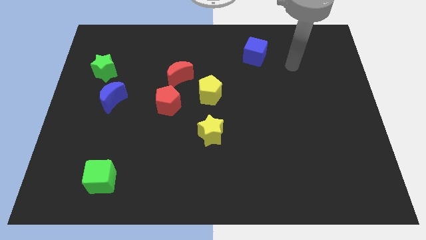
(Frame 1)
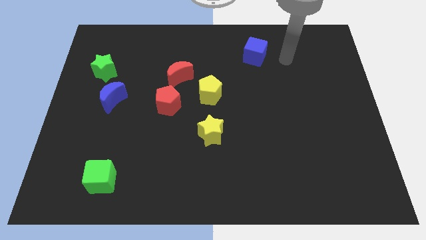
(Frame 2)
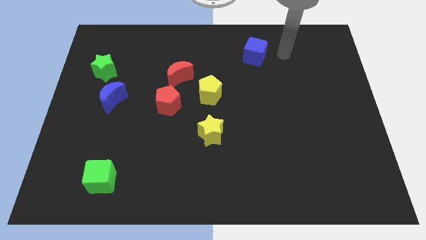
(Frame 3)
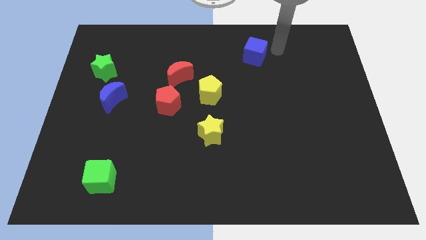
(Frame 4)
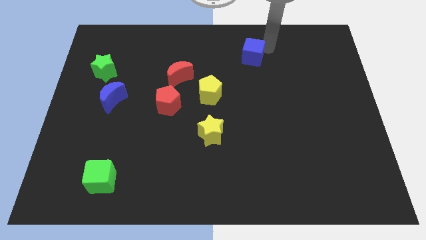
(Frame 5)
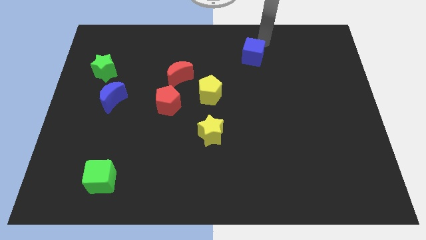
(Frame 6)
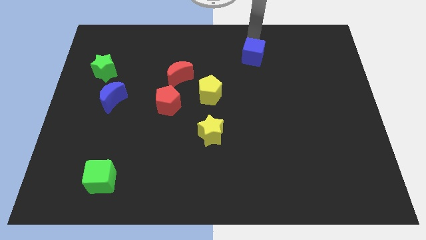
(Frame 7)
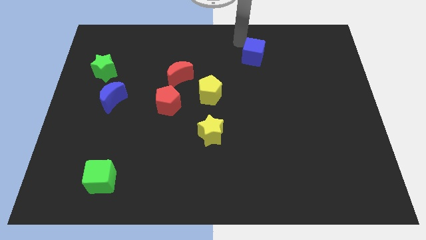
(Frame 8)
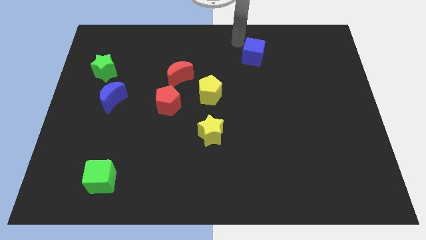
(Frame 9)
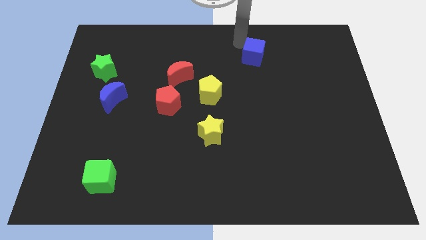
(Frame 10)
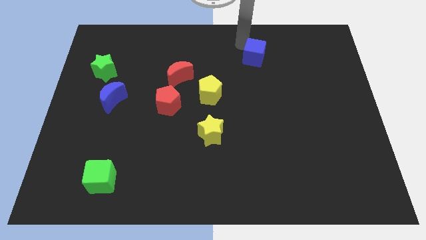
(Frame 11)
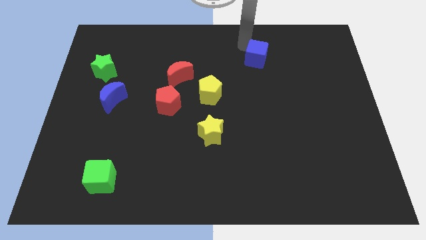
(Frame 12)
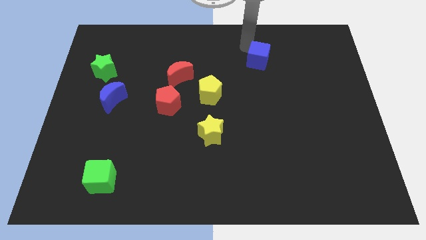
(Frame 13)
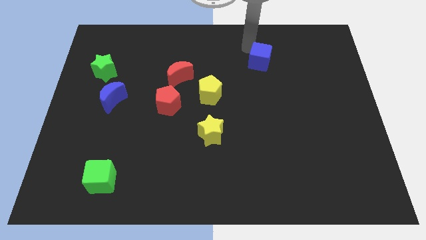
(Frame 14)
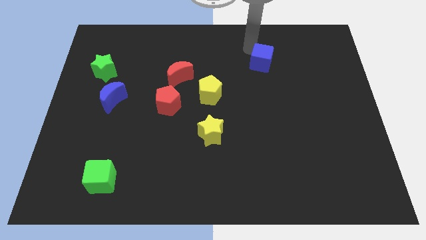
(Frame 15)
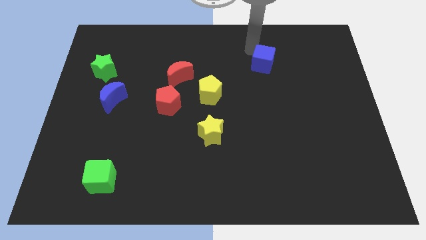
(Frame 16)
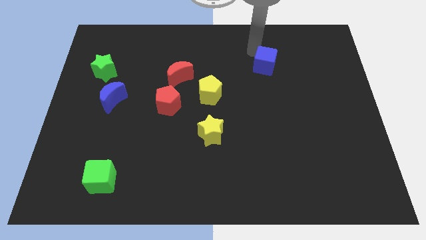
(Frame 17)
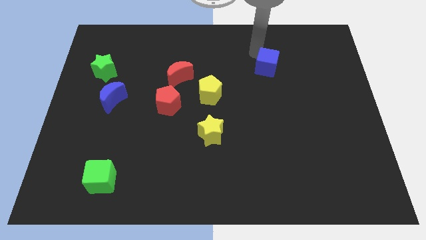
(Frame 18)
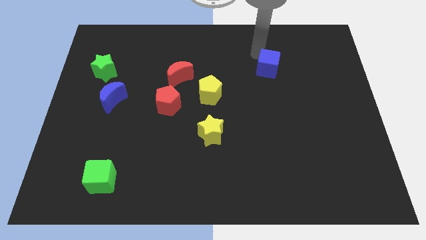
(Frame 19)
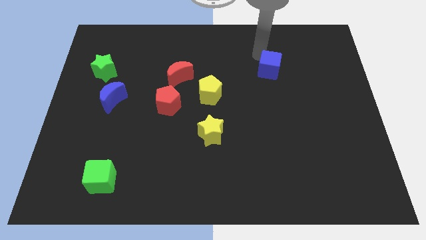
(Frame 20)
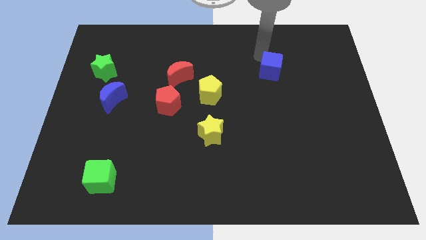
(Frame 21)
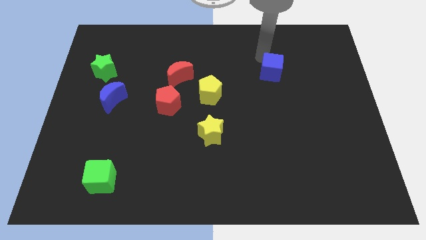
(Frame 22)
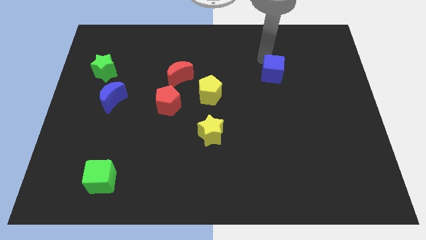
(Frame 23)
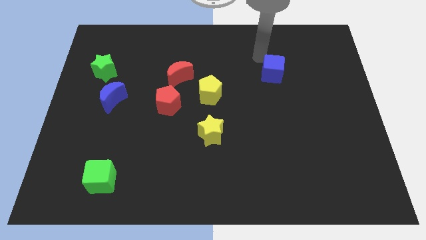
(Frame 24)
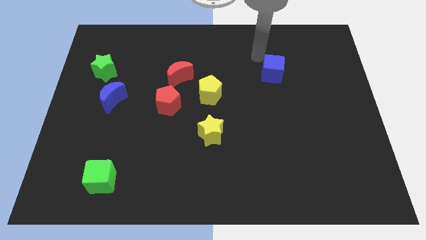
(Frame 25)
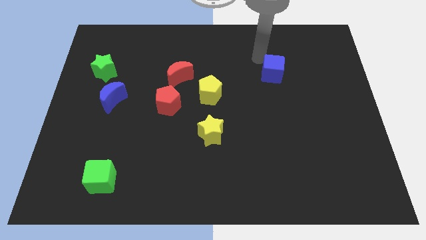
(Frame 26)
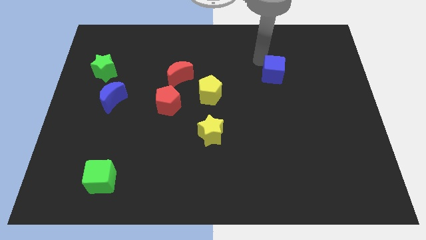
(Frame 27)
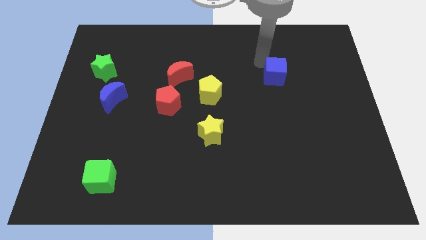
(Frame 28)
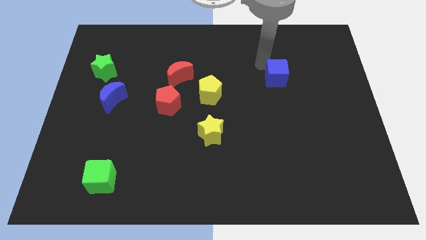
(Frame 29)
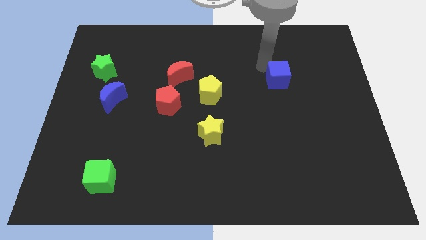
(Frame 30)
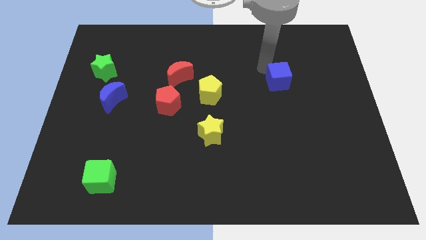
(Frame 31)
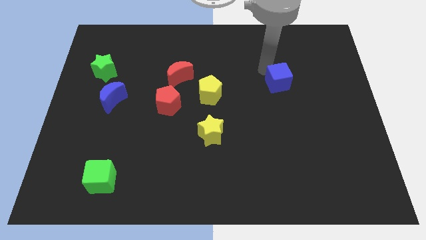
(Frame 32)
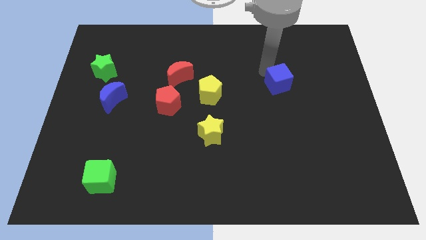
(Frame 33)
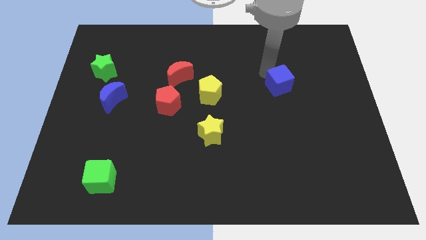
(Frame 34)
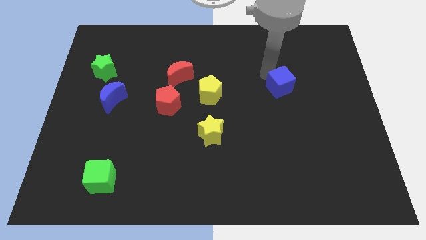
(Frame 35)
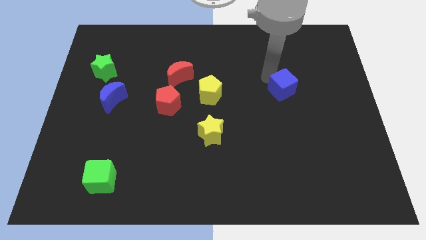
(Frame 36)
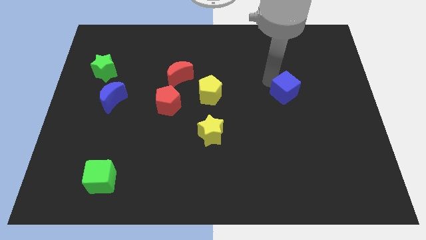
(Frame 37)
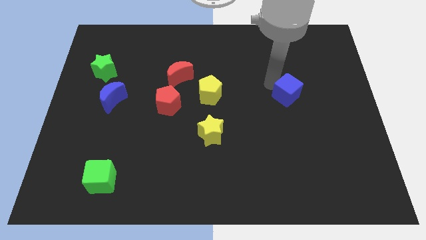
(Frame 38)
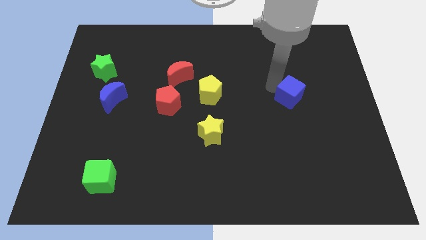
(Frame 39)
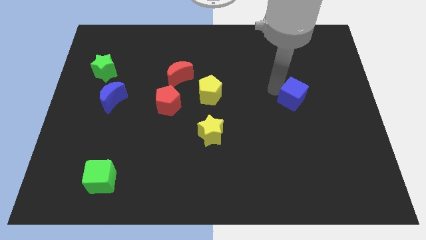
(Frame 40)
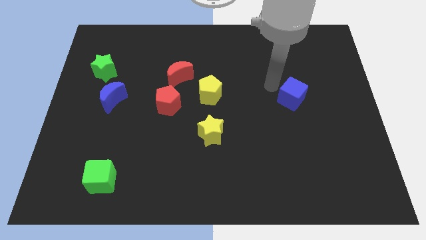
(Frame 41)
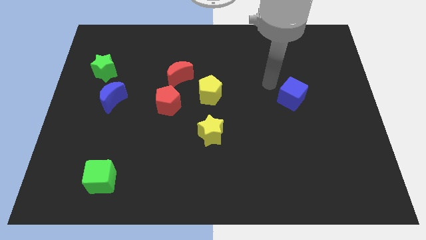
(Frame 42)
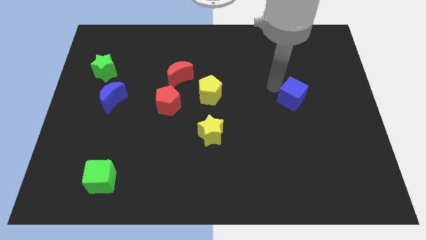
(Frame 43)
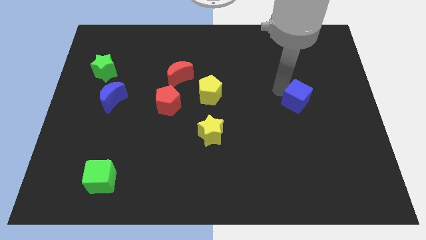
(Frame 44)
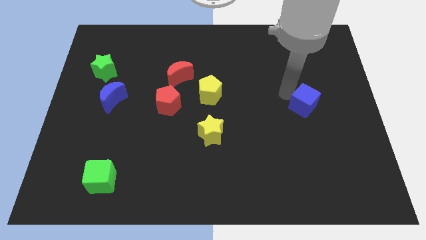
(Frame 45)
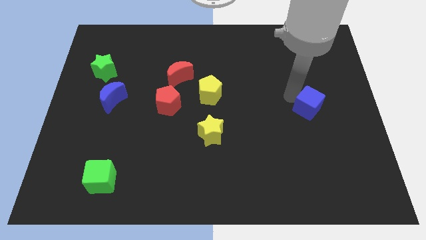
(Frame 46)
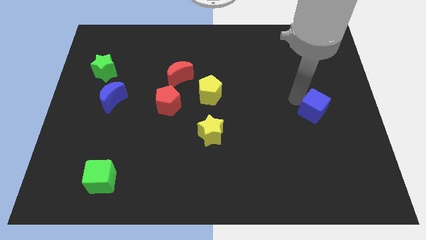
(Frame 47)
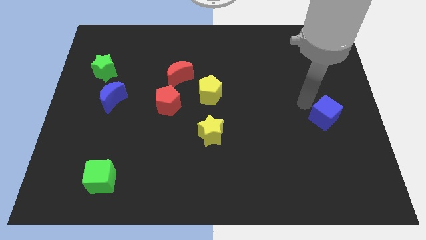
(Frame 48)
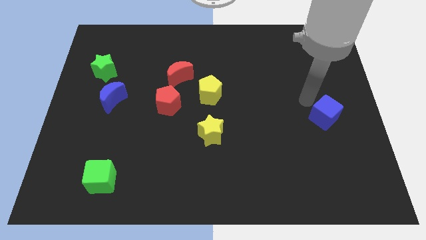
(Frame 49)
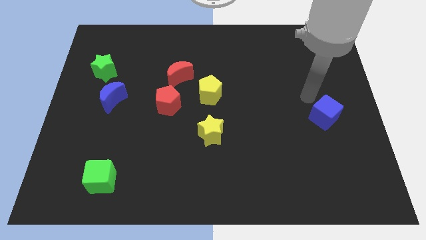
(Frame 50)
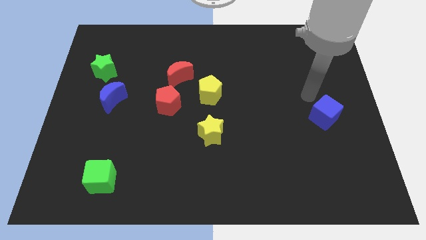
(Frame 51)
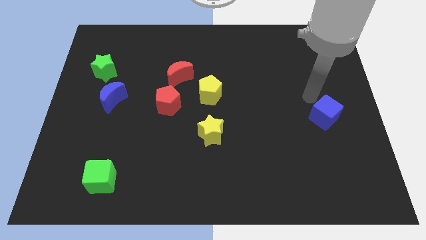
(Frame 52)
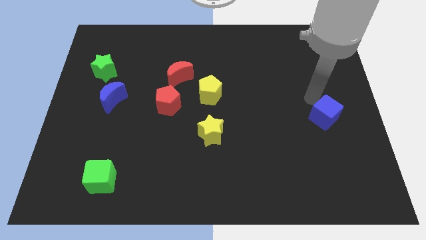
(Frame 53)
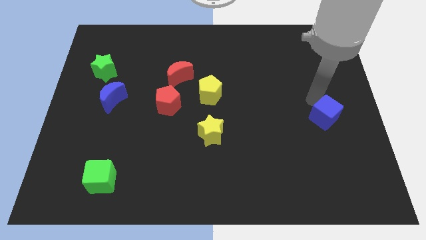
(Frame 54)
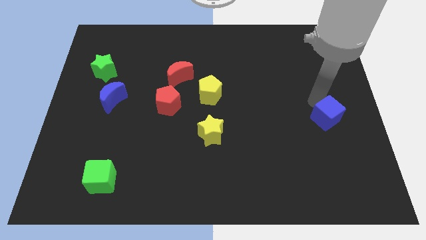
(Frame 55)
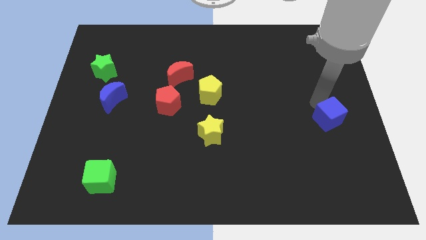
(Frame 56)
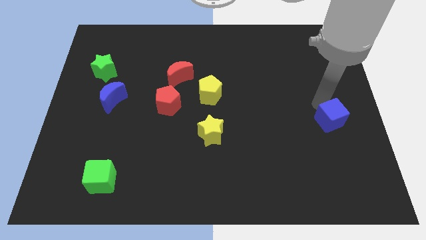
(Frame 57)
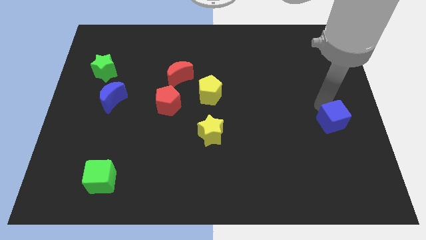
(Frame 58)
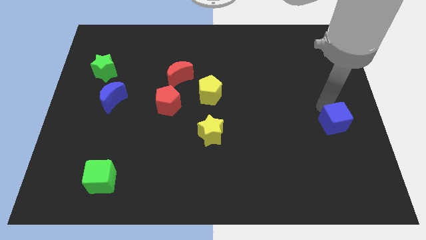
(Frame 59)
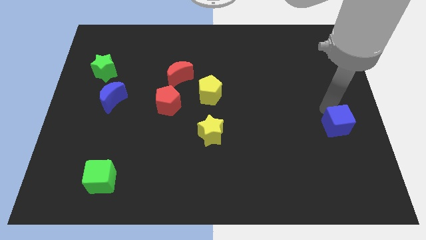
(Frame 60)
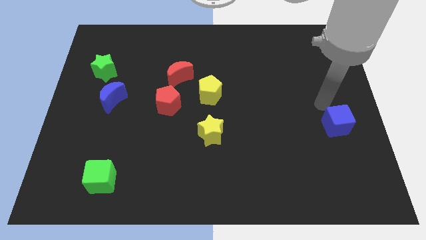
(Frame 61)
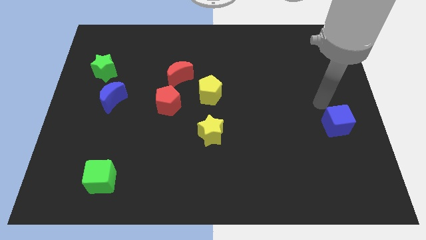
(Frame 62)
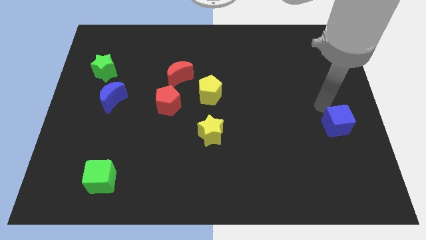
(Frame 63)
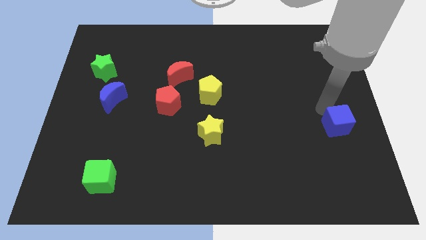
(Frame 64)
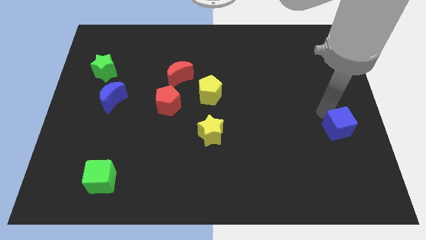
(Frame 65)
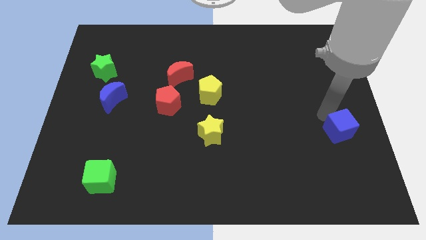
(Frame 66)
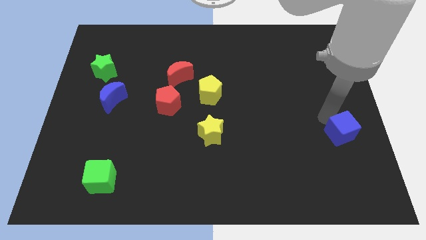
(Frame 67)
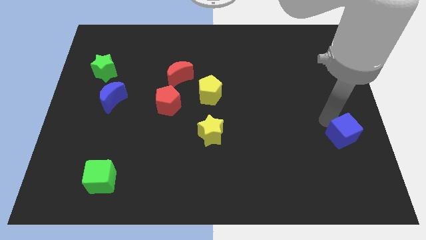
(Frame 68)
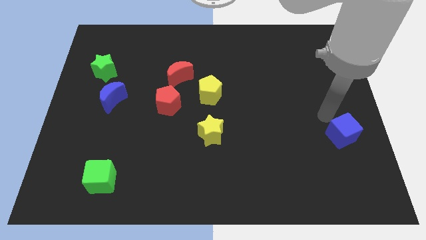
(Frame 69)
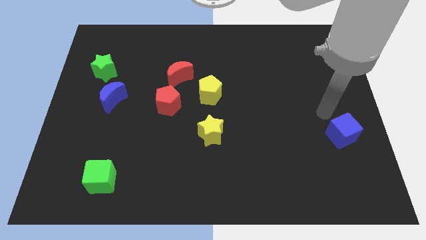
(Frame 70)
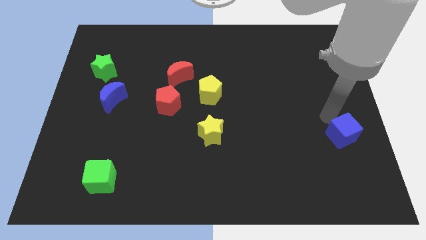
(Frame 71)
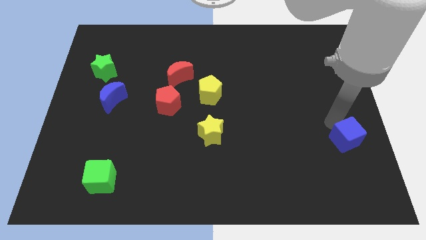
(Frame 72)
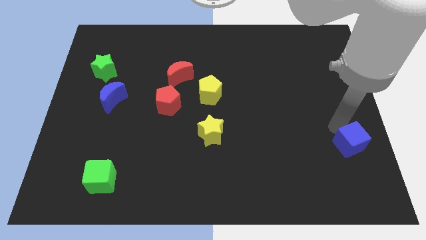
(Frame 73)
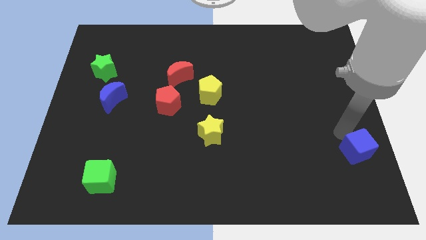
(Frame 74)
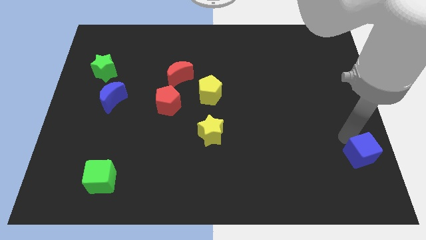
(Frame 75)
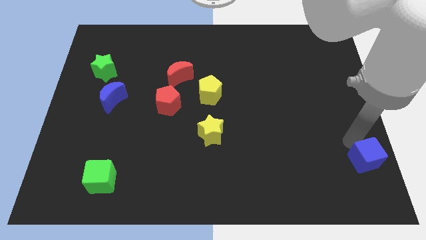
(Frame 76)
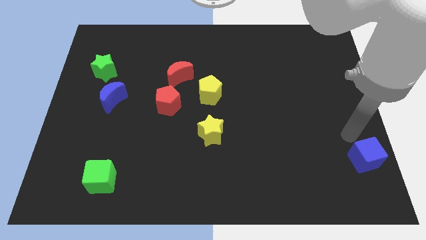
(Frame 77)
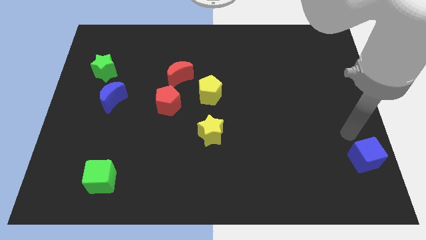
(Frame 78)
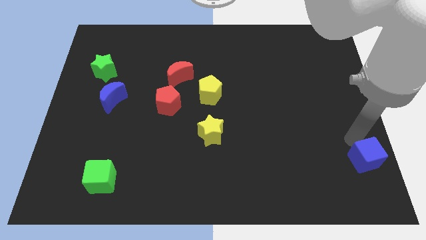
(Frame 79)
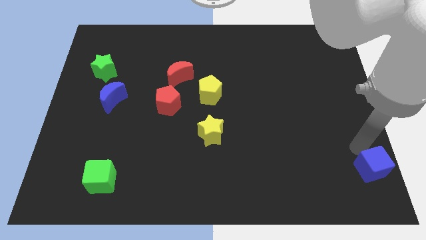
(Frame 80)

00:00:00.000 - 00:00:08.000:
slide the blue cube to the bottom right corner
